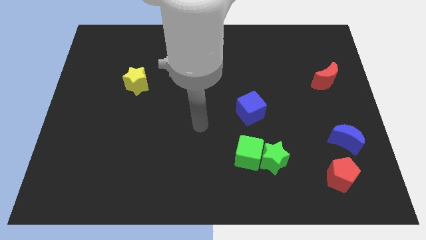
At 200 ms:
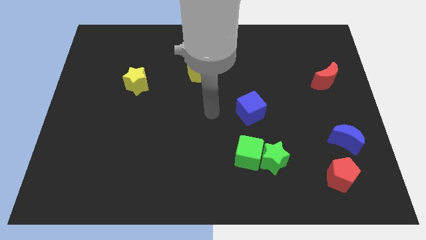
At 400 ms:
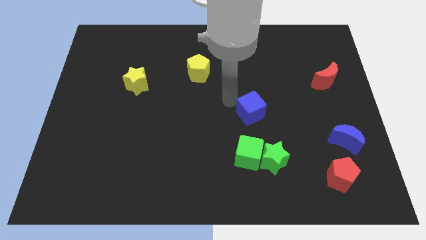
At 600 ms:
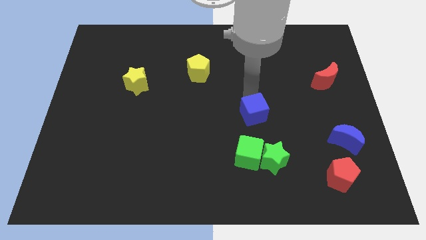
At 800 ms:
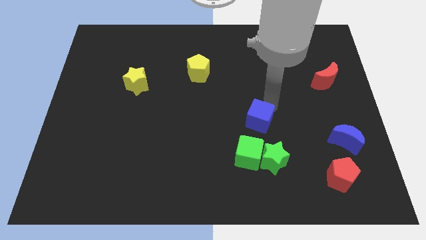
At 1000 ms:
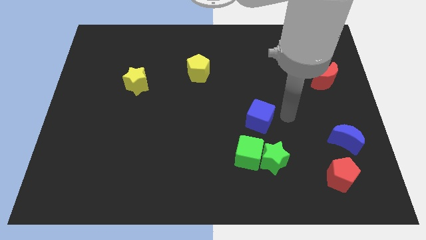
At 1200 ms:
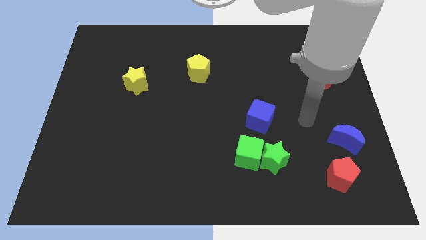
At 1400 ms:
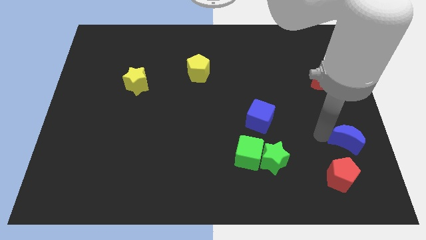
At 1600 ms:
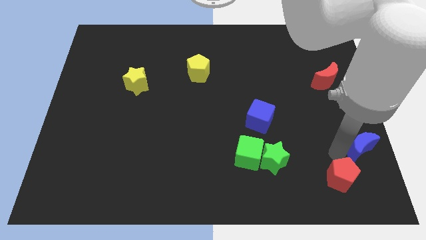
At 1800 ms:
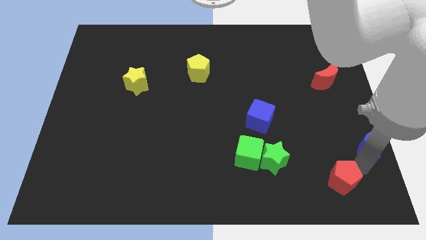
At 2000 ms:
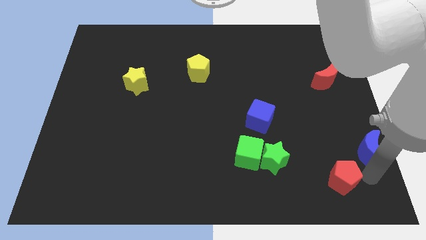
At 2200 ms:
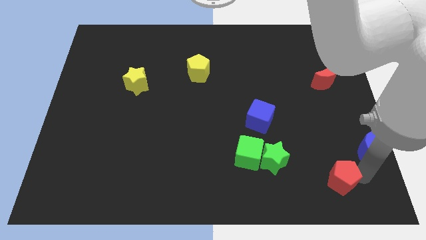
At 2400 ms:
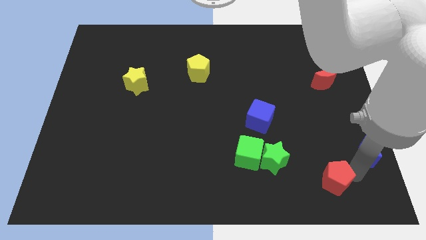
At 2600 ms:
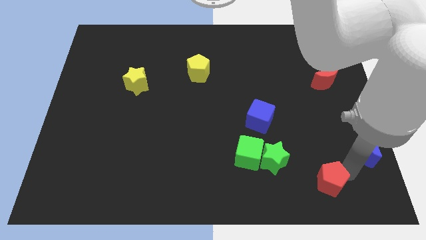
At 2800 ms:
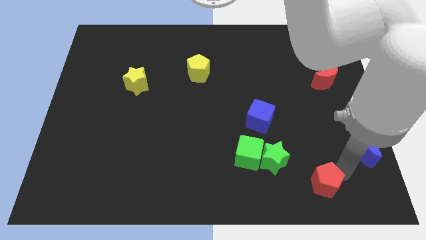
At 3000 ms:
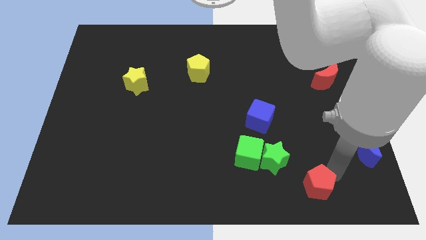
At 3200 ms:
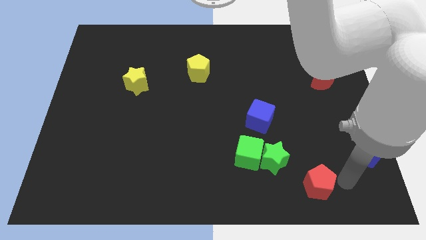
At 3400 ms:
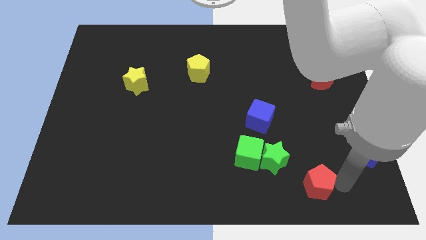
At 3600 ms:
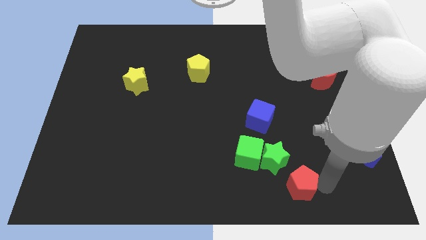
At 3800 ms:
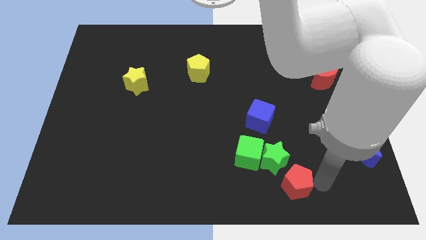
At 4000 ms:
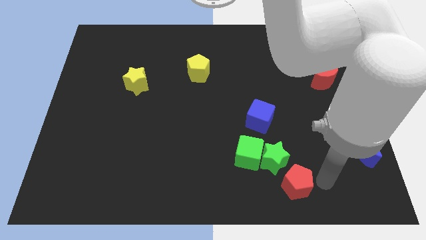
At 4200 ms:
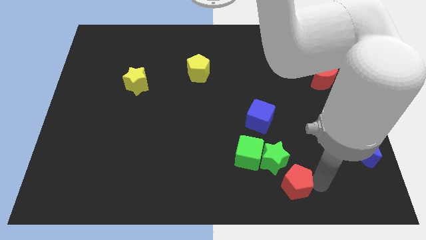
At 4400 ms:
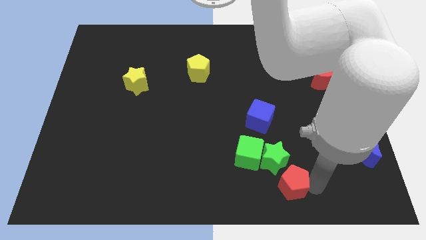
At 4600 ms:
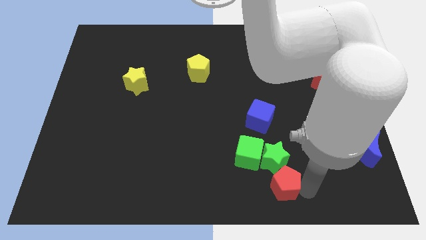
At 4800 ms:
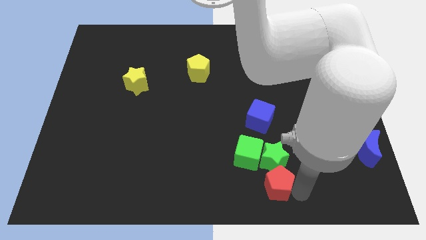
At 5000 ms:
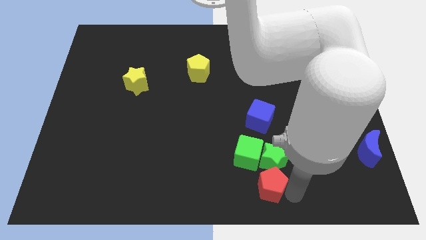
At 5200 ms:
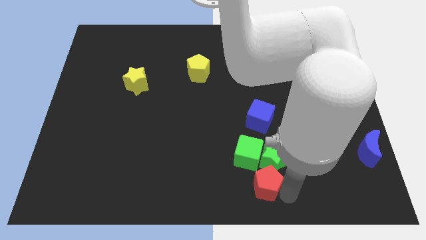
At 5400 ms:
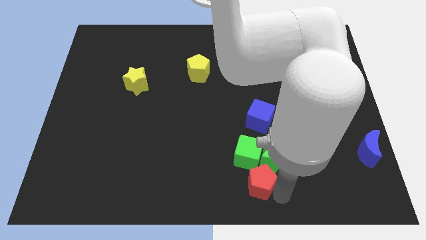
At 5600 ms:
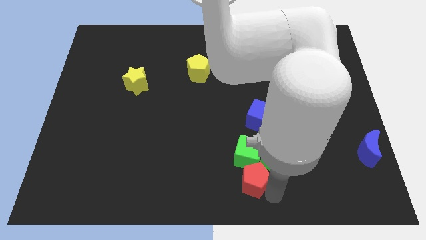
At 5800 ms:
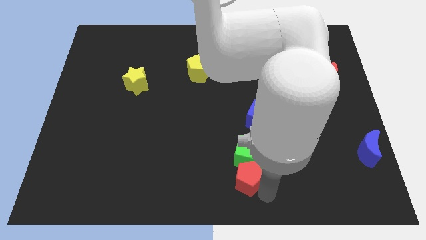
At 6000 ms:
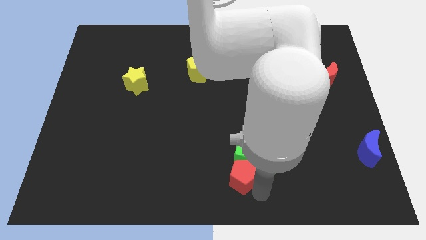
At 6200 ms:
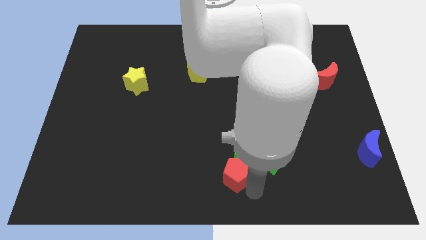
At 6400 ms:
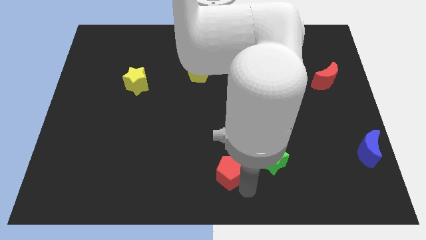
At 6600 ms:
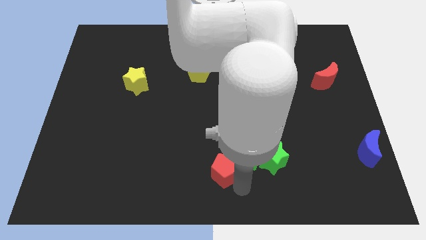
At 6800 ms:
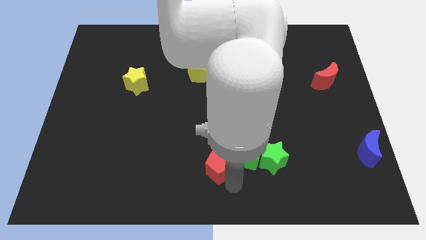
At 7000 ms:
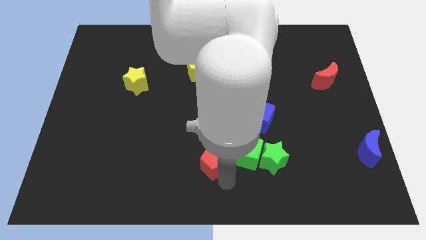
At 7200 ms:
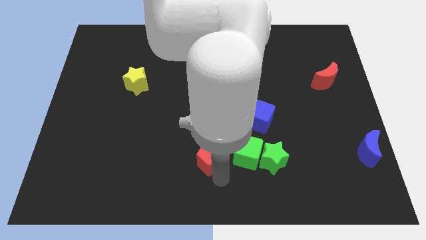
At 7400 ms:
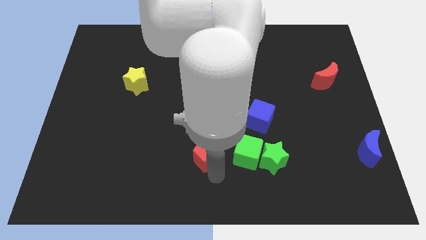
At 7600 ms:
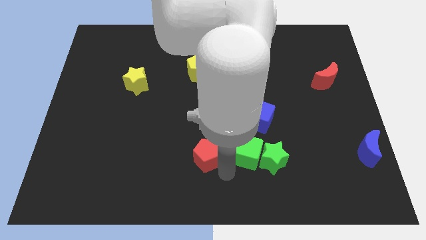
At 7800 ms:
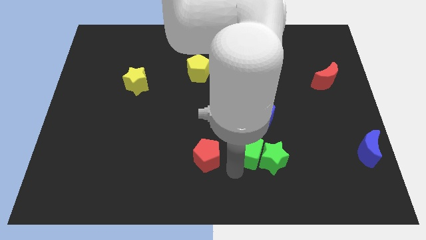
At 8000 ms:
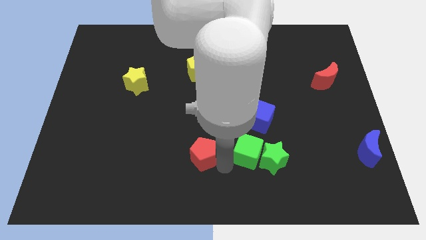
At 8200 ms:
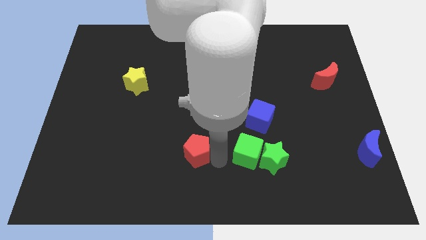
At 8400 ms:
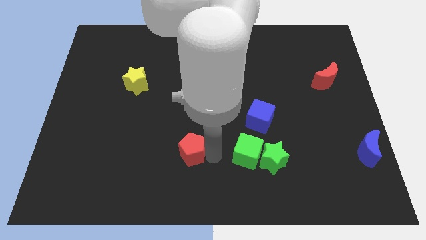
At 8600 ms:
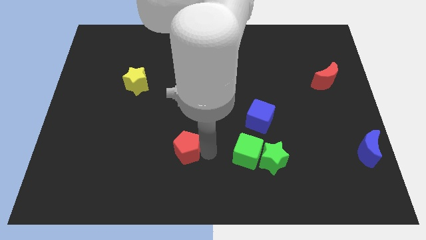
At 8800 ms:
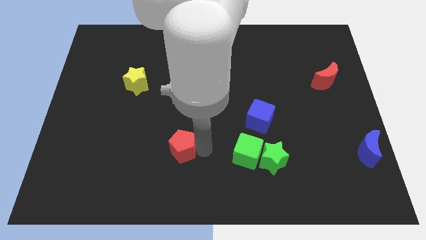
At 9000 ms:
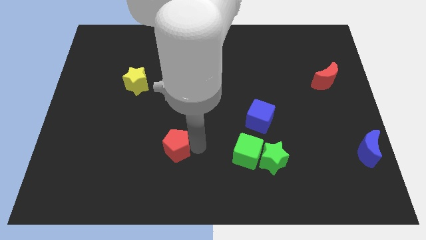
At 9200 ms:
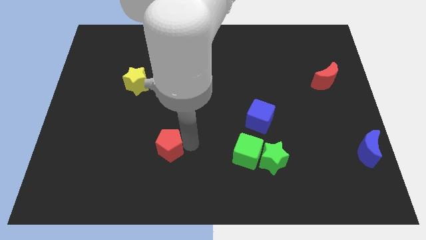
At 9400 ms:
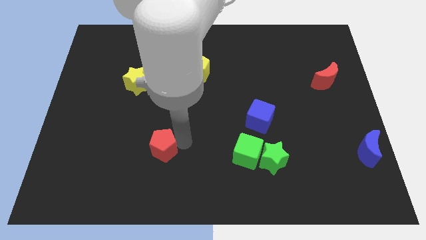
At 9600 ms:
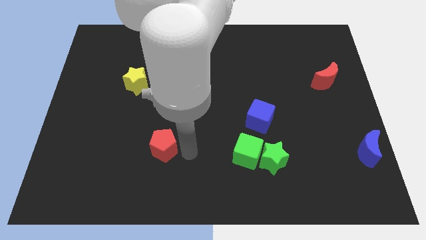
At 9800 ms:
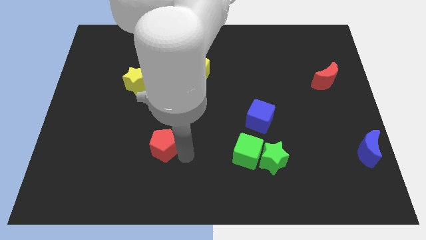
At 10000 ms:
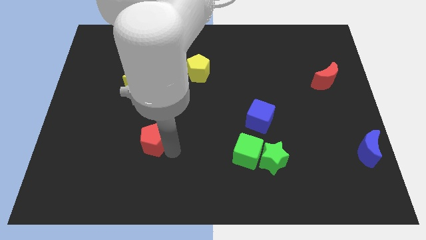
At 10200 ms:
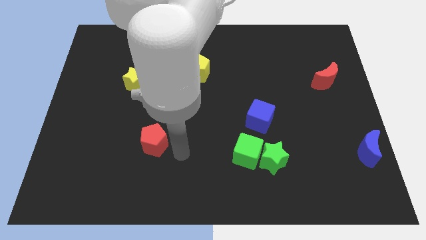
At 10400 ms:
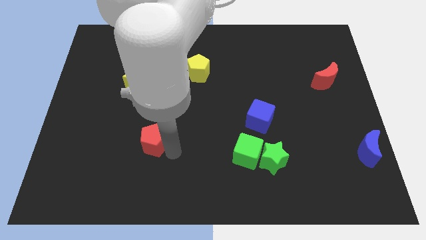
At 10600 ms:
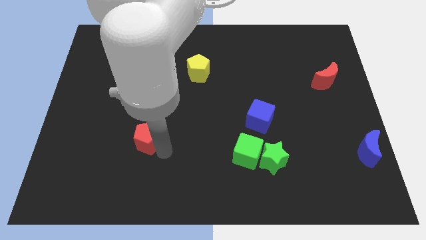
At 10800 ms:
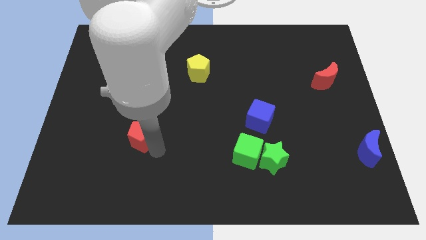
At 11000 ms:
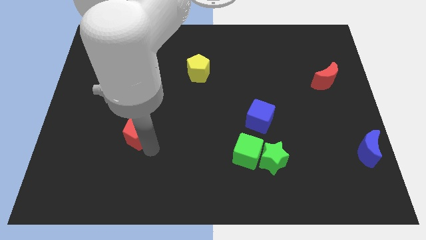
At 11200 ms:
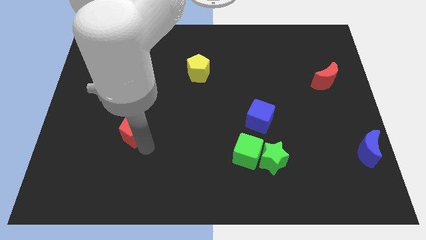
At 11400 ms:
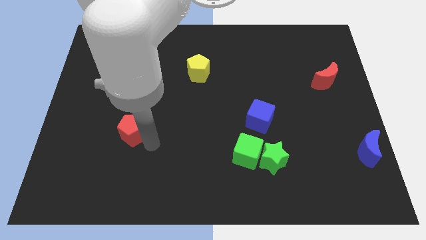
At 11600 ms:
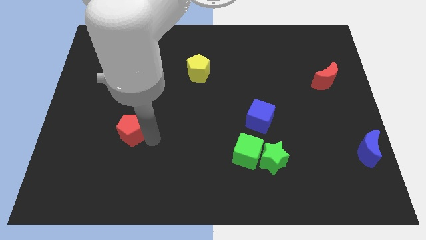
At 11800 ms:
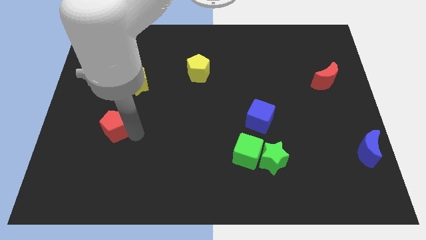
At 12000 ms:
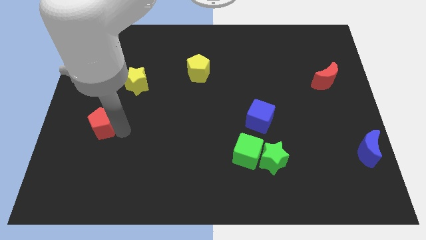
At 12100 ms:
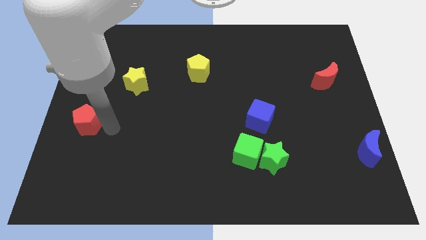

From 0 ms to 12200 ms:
slide the red pentagon to the left side of the board
